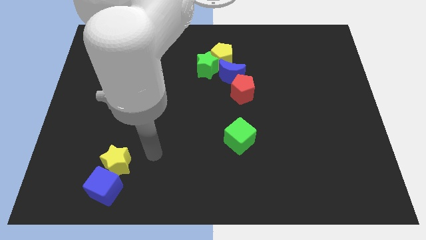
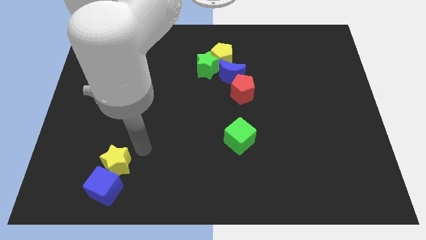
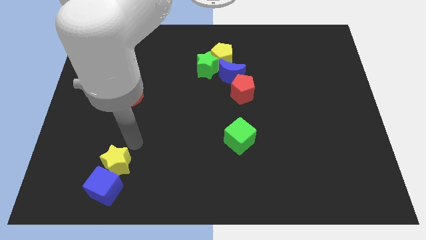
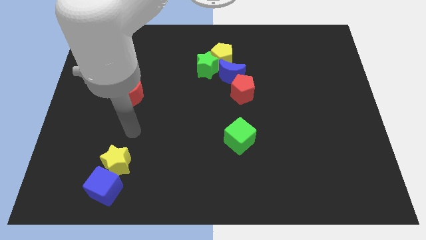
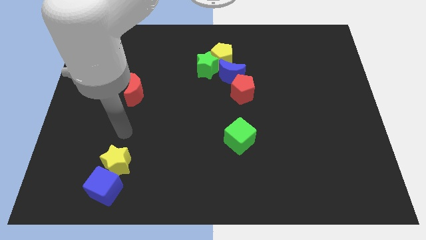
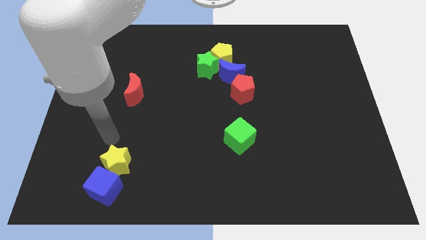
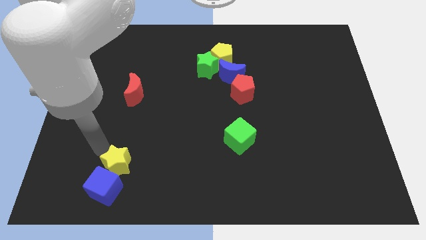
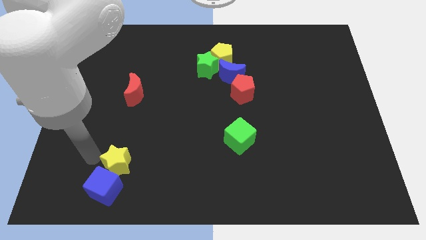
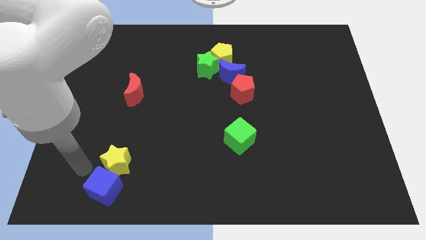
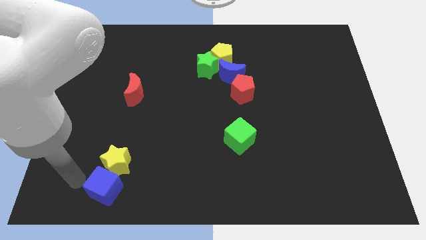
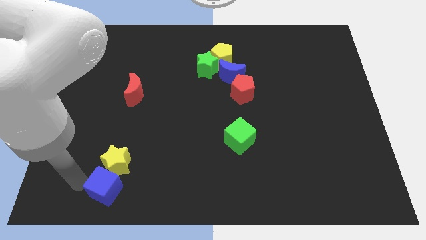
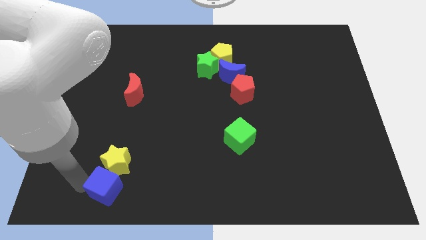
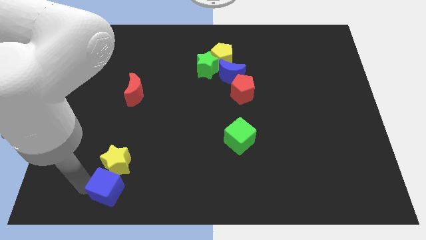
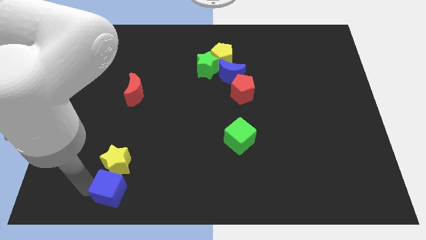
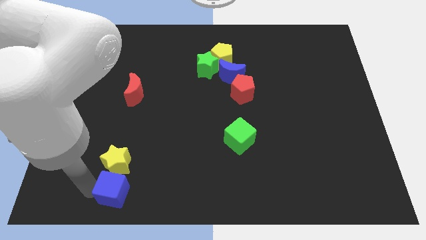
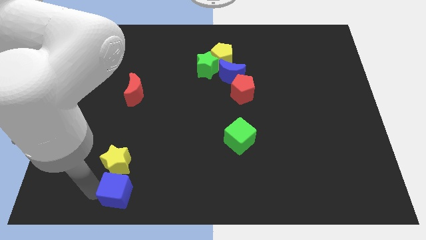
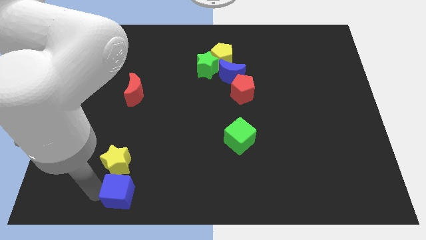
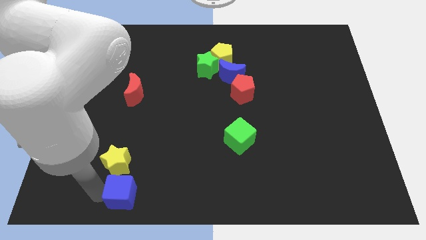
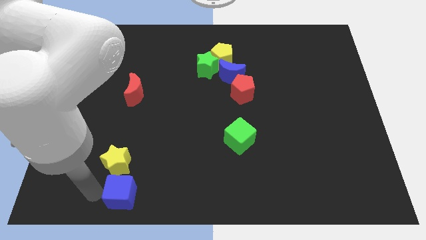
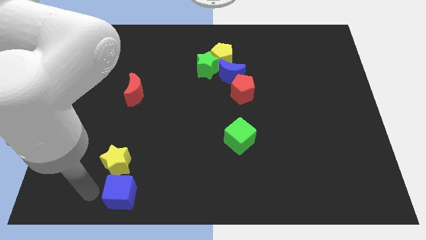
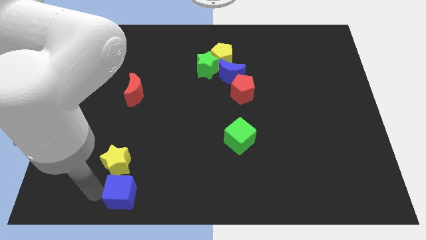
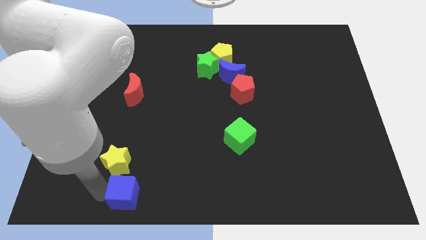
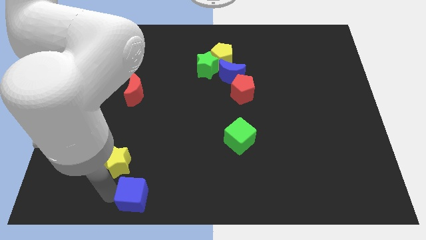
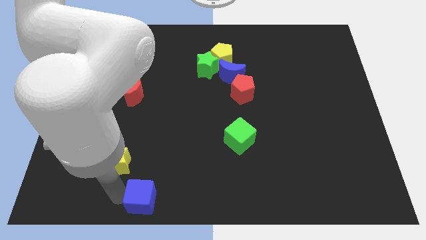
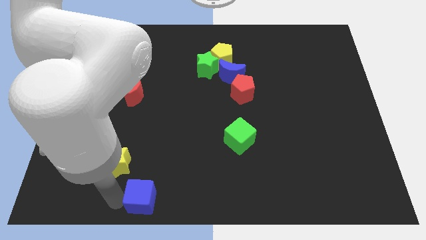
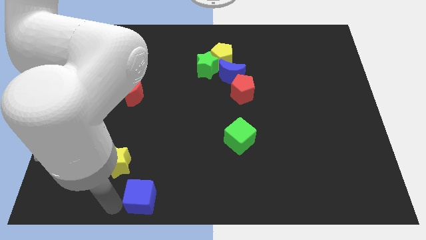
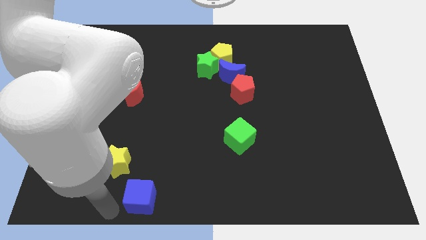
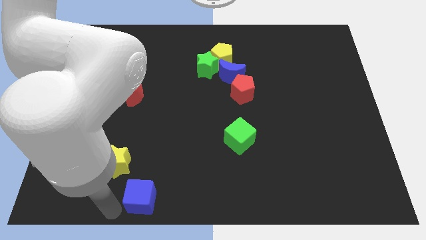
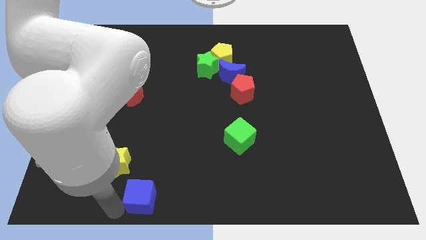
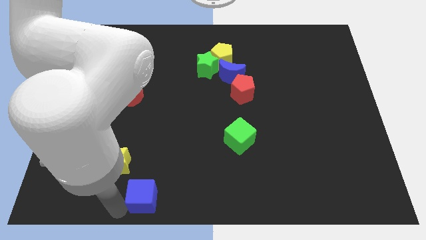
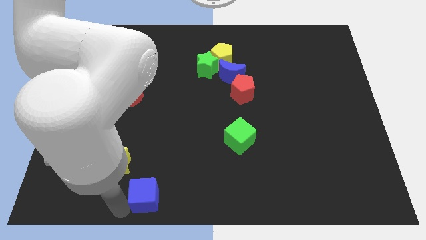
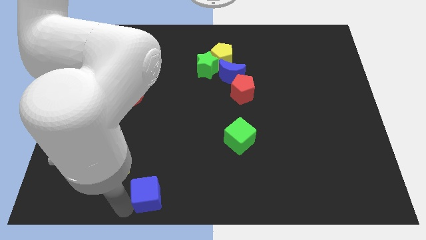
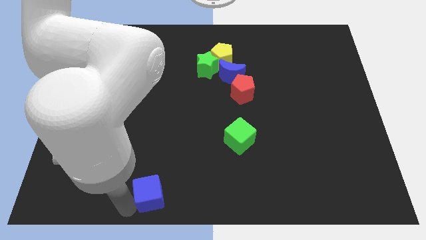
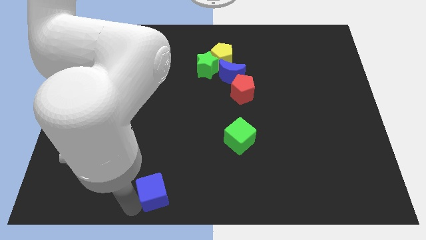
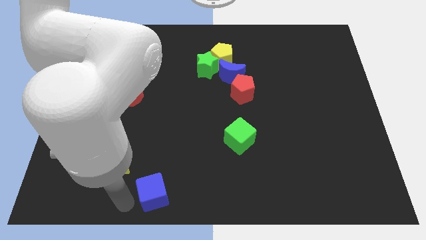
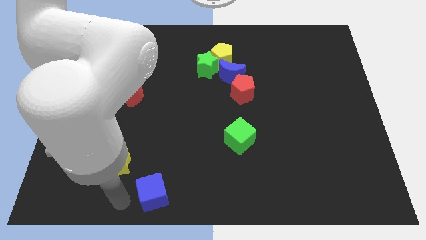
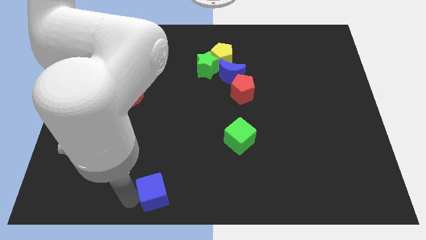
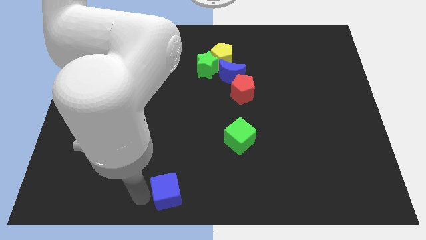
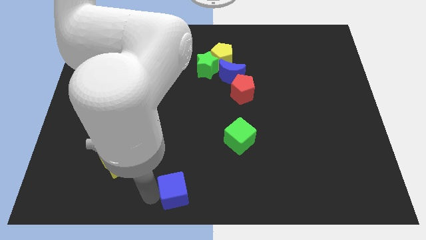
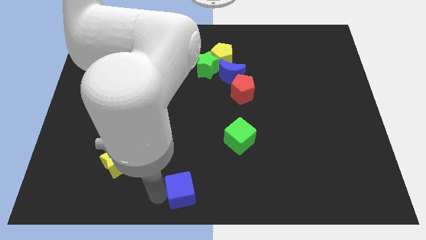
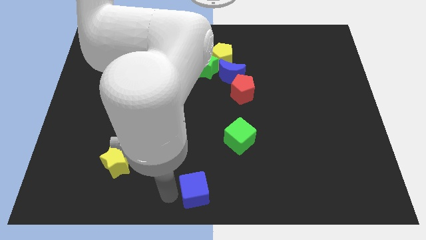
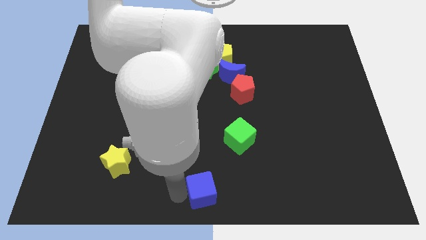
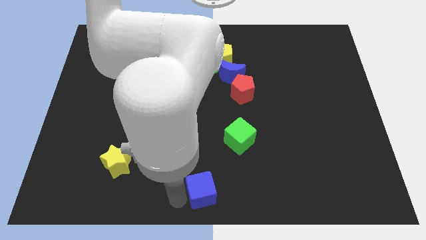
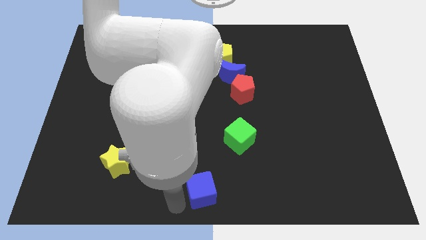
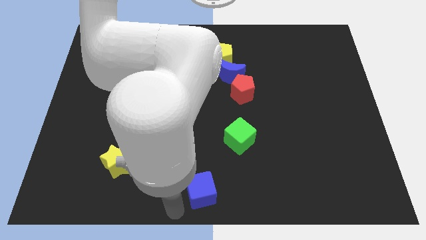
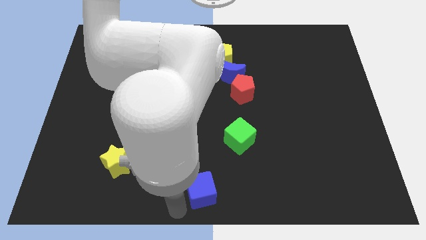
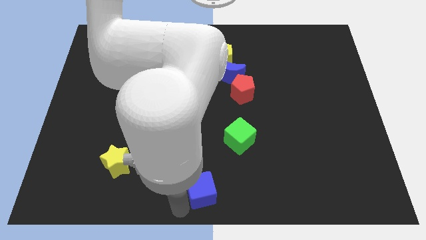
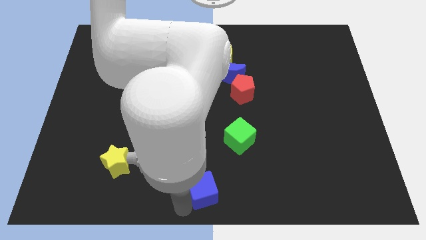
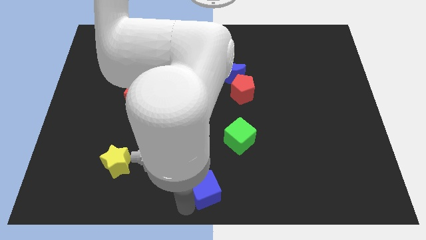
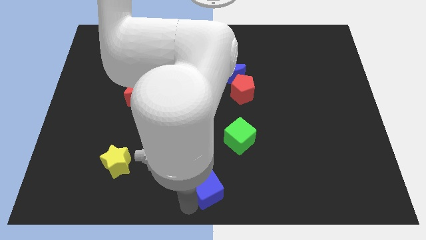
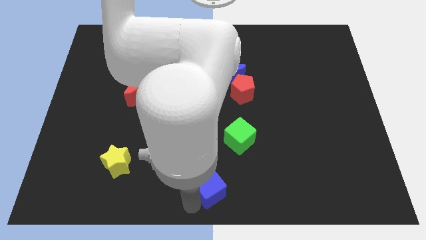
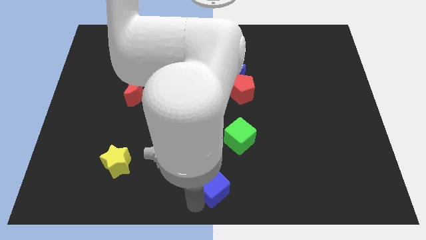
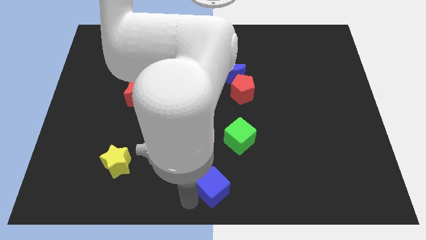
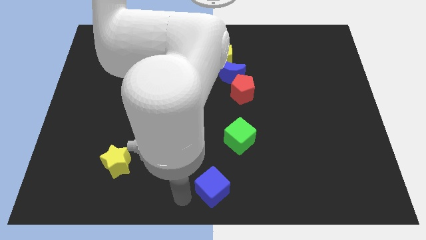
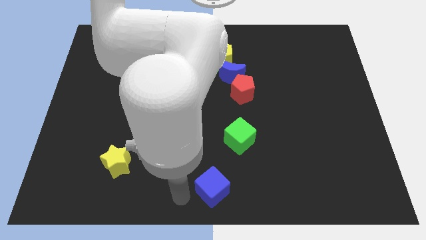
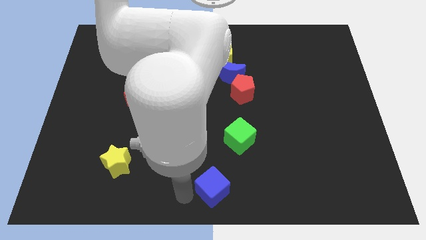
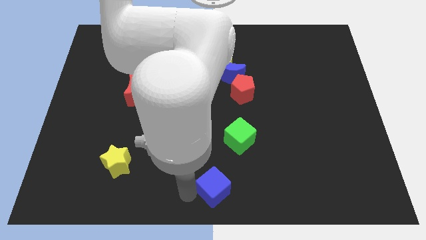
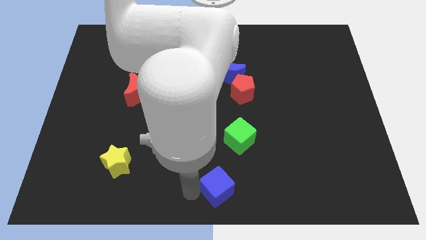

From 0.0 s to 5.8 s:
slide the blue cube to the bottom of the green cube

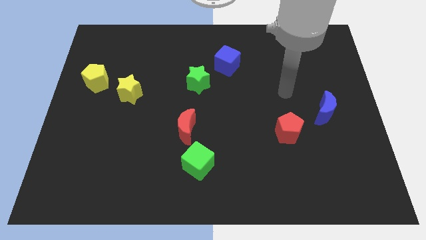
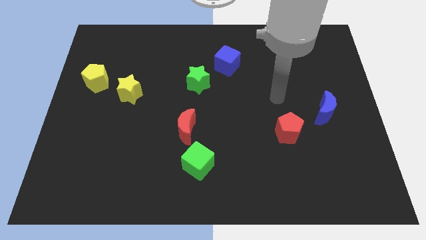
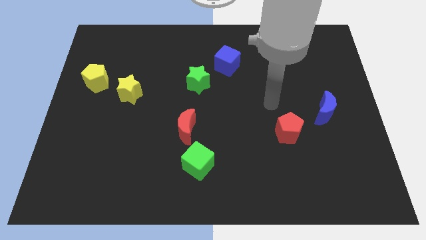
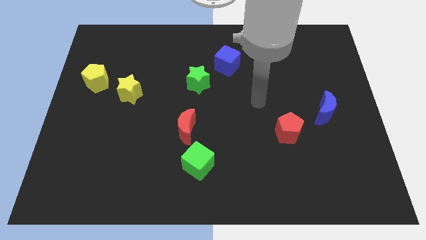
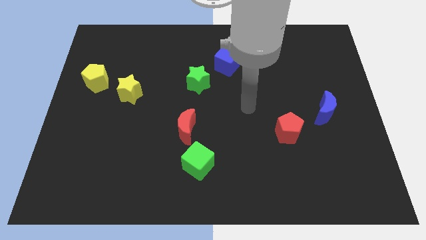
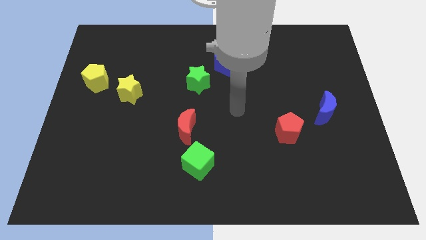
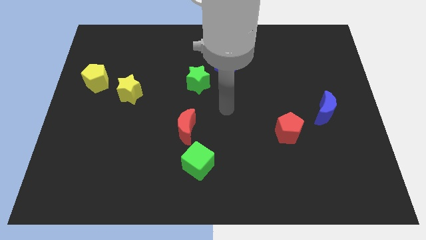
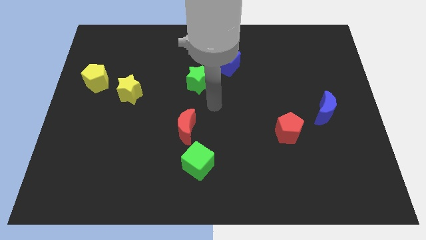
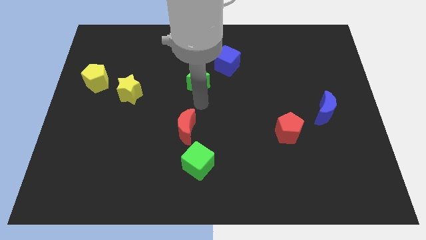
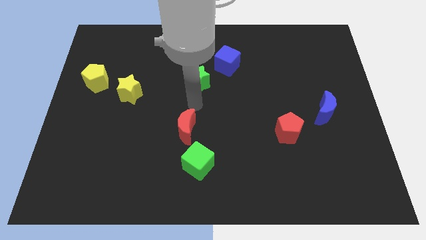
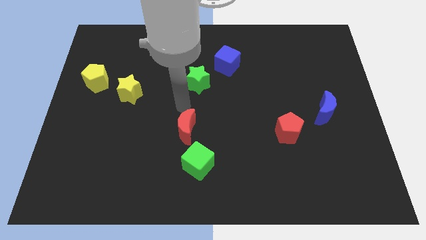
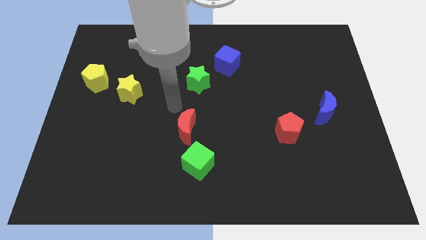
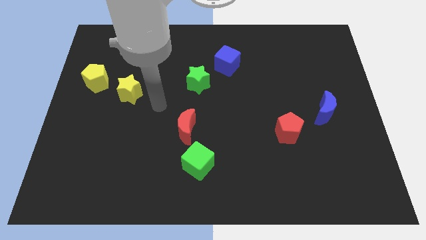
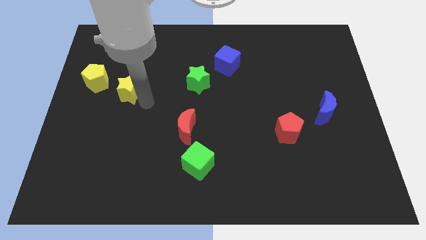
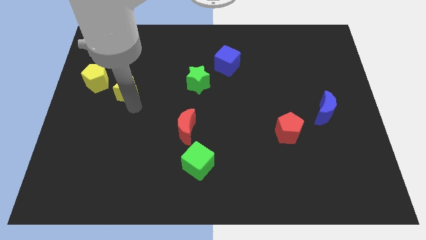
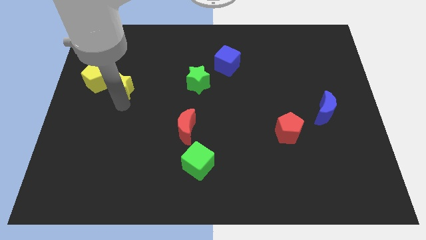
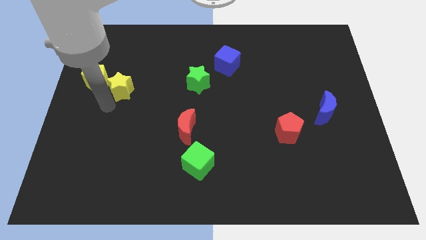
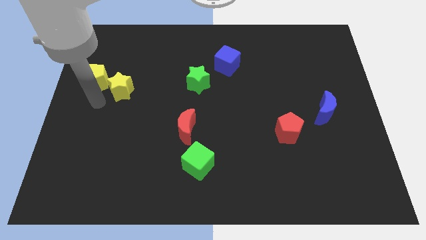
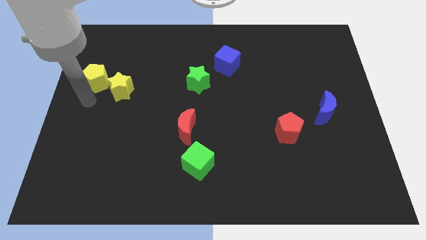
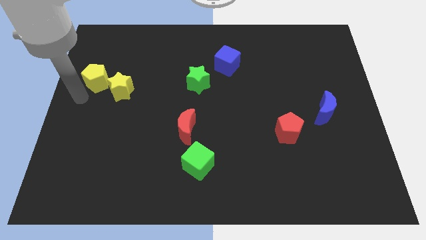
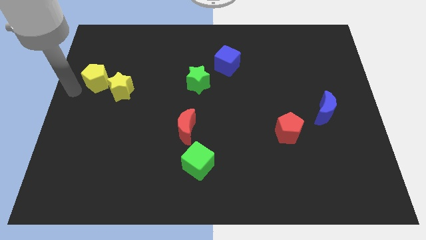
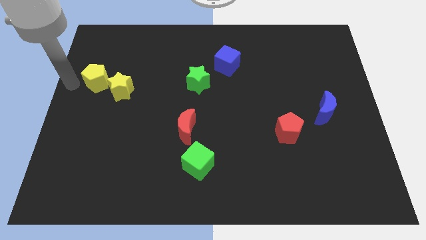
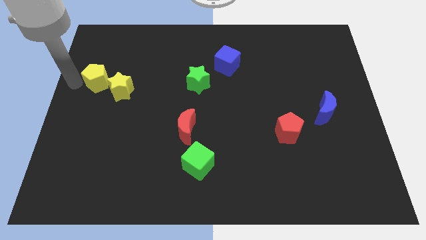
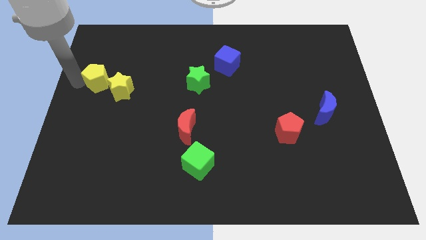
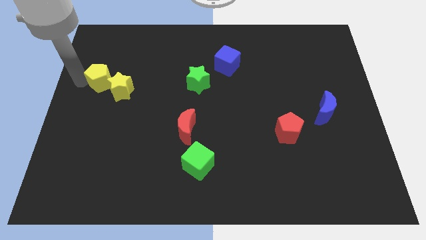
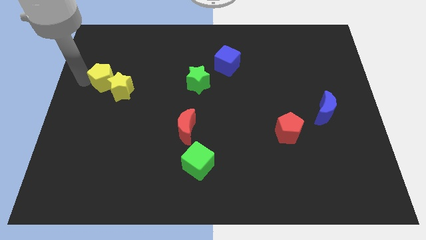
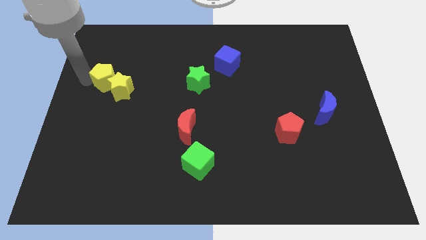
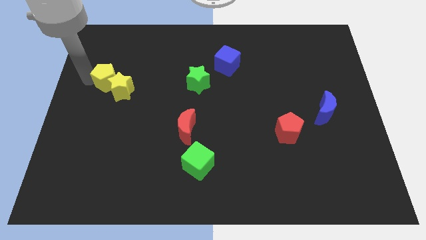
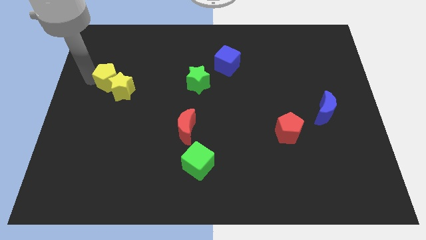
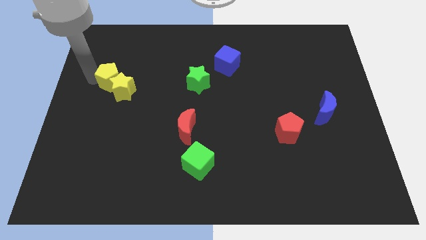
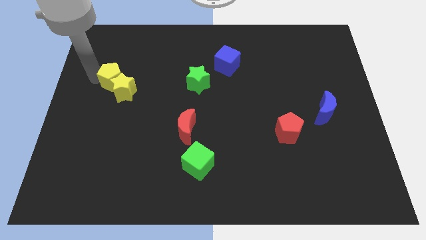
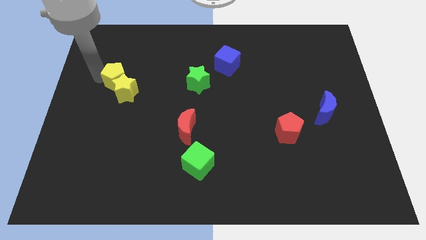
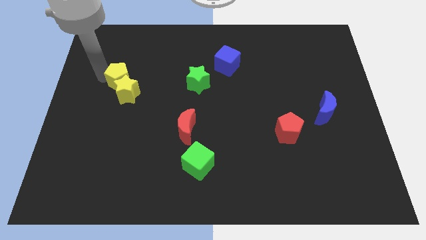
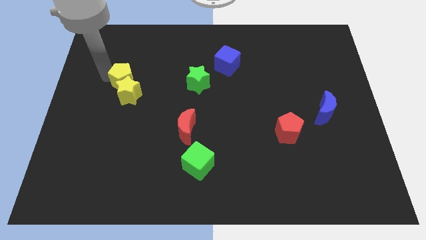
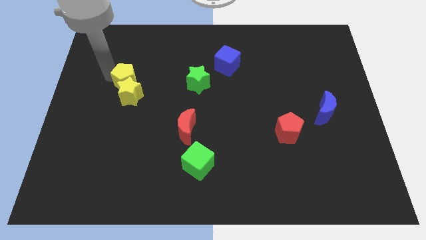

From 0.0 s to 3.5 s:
put the yellow pentagon diagonally up and to the right of the yellow star
